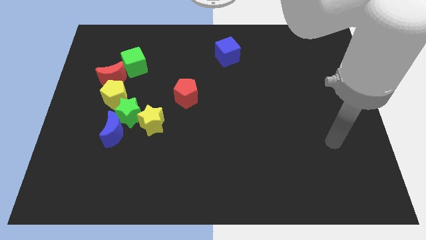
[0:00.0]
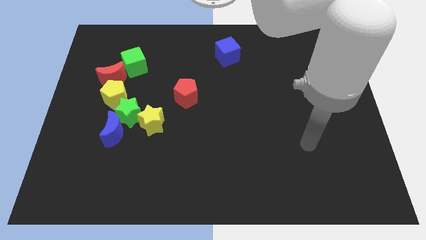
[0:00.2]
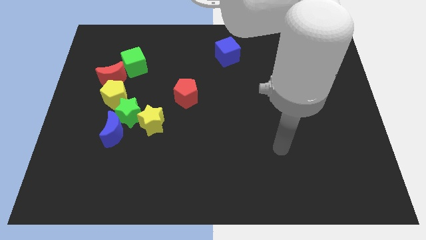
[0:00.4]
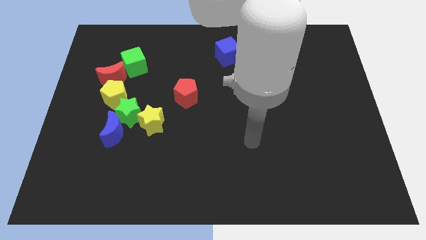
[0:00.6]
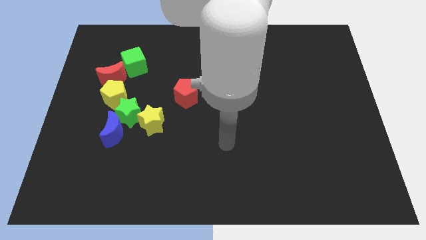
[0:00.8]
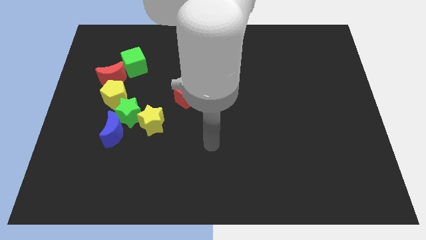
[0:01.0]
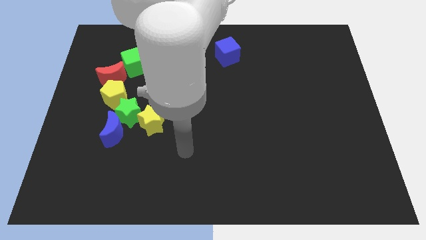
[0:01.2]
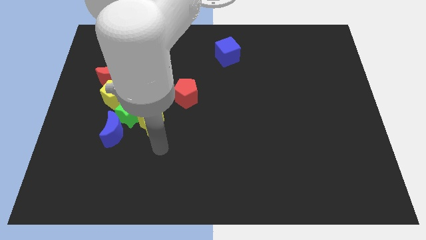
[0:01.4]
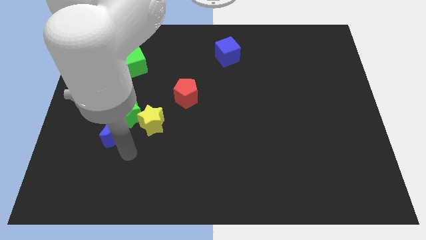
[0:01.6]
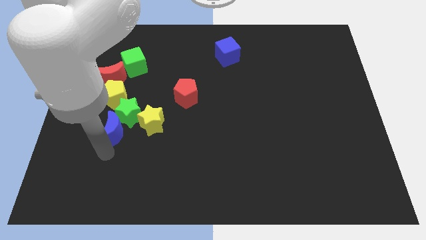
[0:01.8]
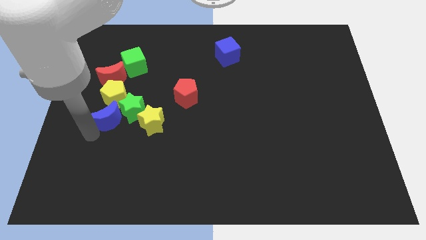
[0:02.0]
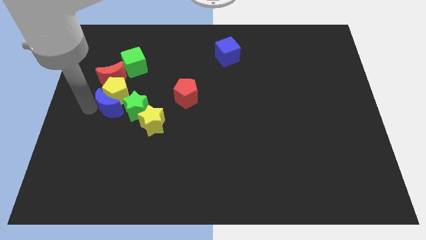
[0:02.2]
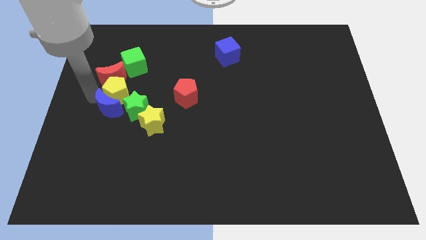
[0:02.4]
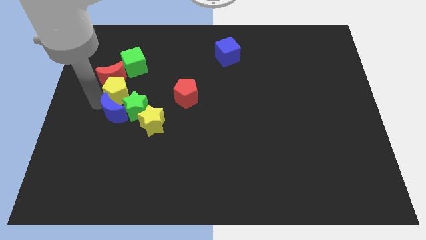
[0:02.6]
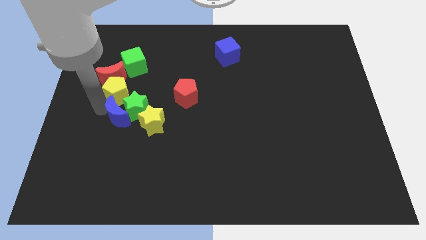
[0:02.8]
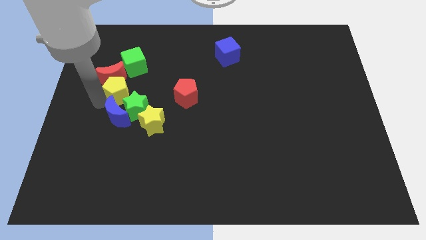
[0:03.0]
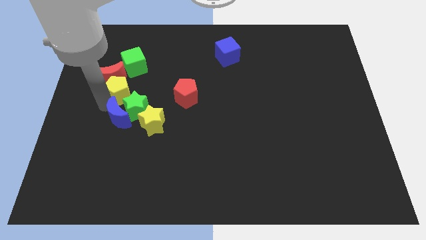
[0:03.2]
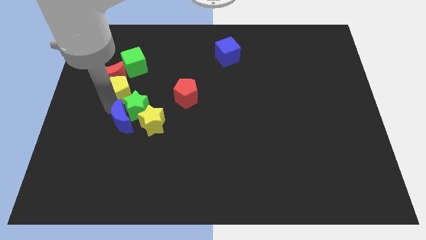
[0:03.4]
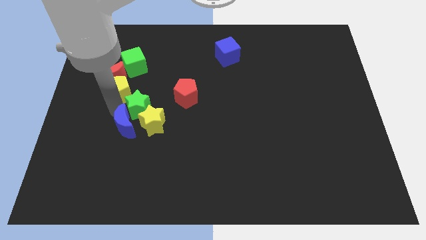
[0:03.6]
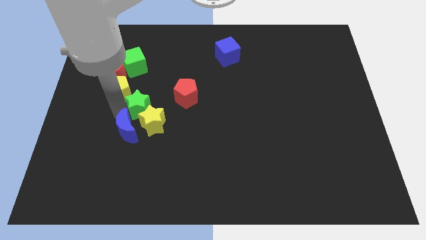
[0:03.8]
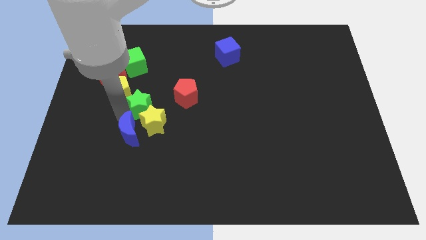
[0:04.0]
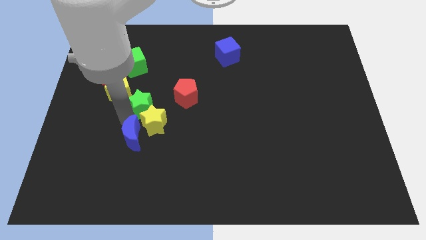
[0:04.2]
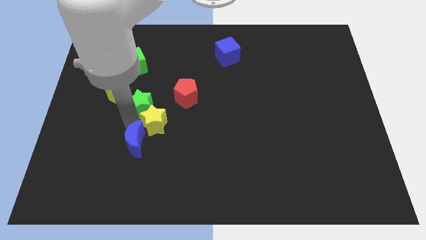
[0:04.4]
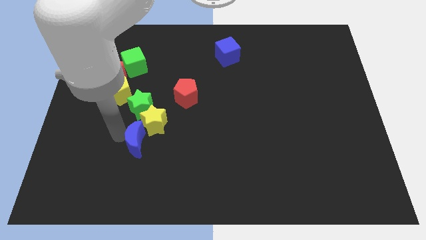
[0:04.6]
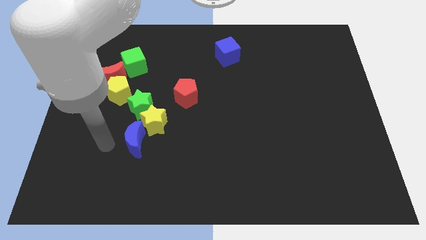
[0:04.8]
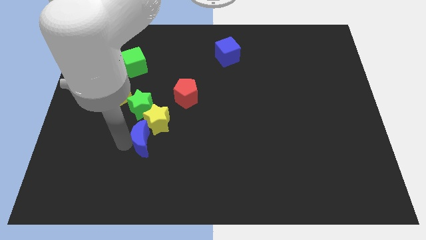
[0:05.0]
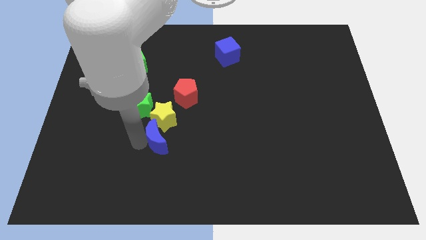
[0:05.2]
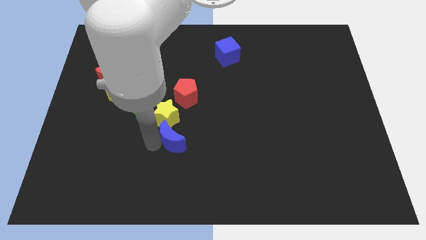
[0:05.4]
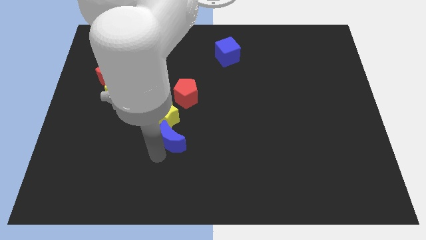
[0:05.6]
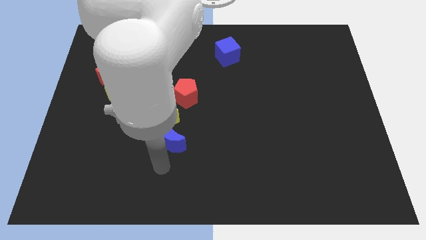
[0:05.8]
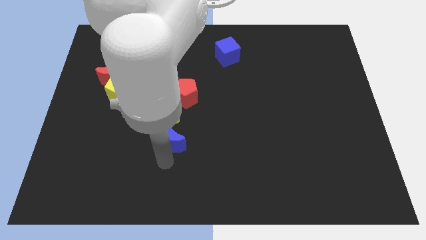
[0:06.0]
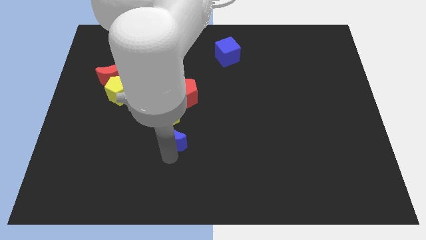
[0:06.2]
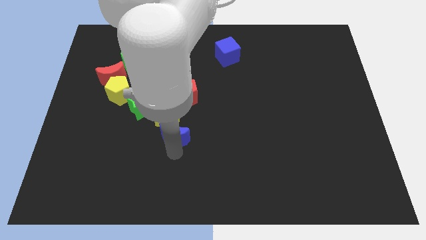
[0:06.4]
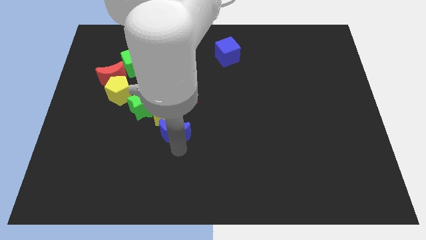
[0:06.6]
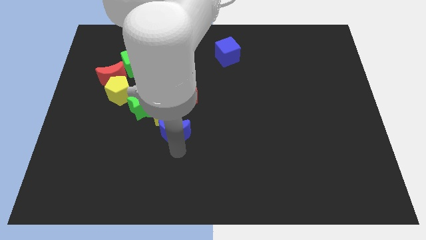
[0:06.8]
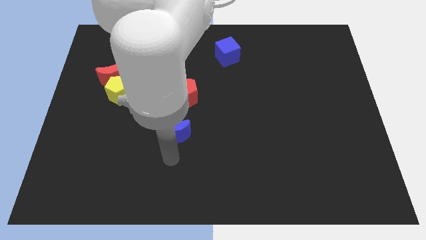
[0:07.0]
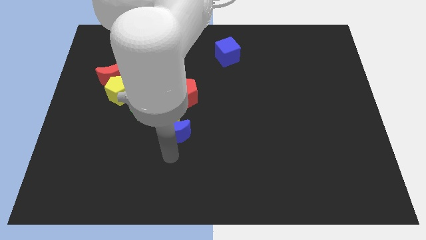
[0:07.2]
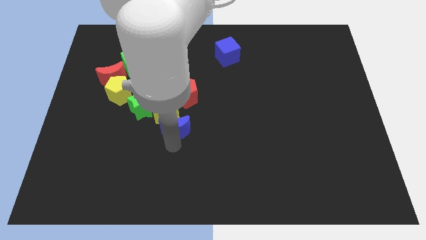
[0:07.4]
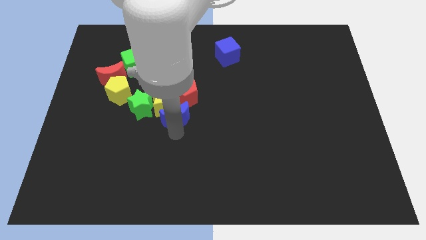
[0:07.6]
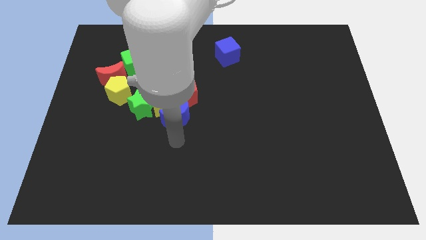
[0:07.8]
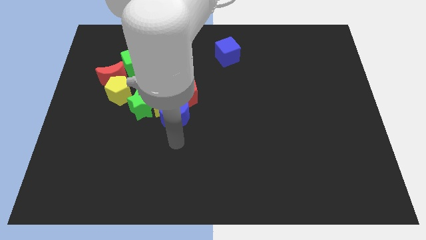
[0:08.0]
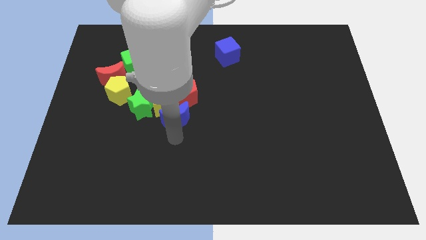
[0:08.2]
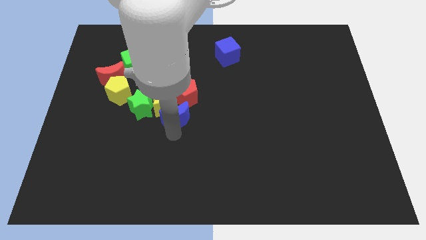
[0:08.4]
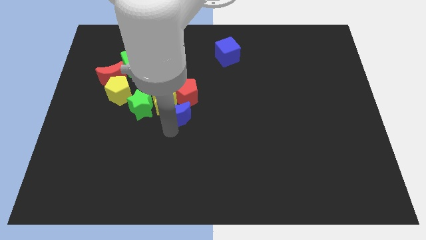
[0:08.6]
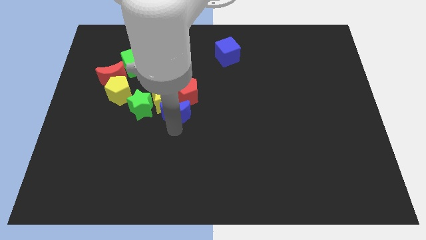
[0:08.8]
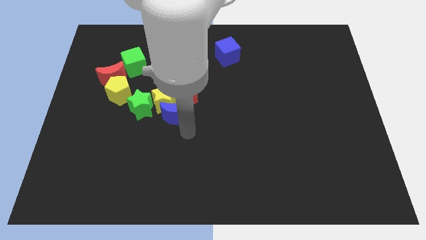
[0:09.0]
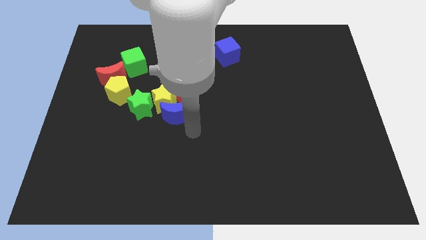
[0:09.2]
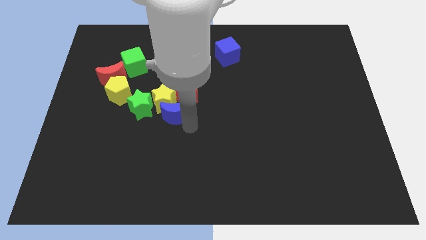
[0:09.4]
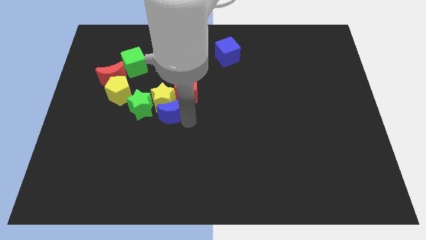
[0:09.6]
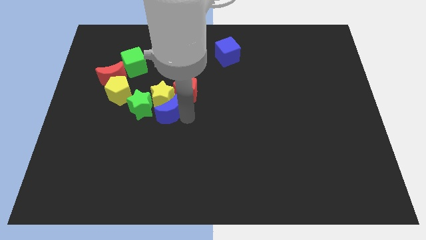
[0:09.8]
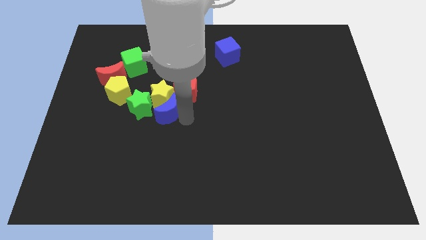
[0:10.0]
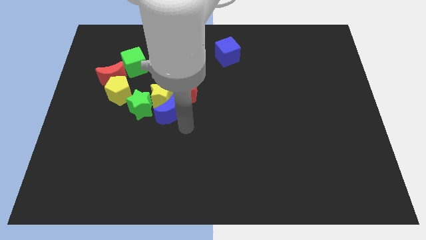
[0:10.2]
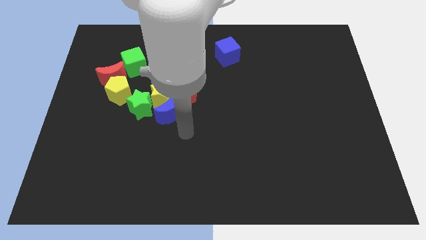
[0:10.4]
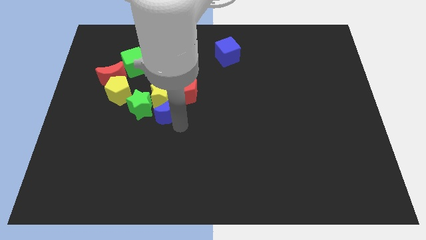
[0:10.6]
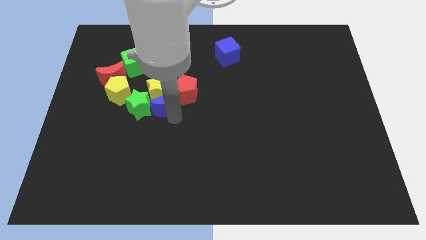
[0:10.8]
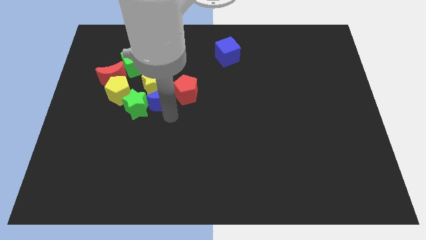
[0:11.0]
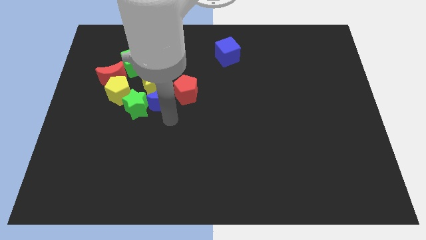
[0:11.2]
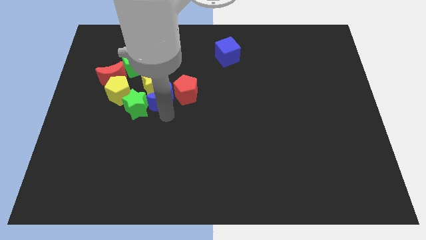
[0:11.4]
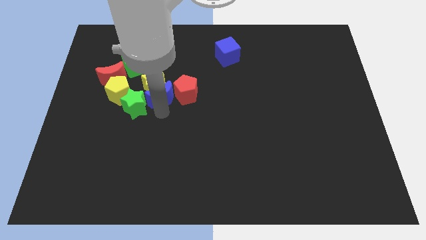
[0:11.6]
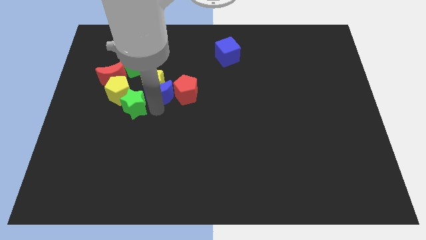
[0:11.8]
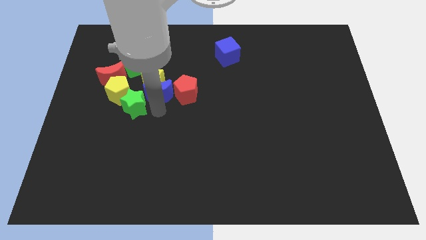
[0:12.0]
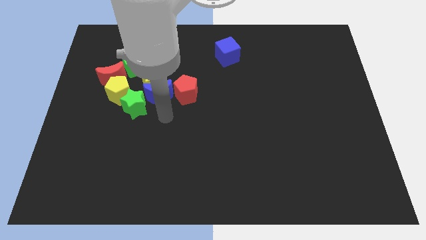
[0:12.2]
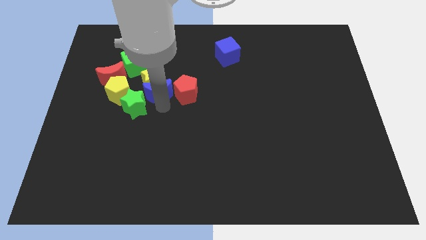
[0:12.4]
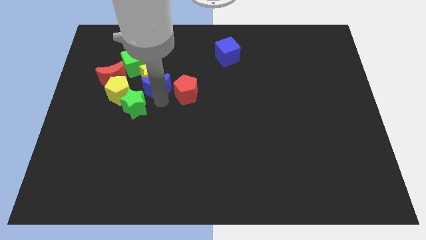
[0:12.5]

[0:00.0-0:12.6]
slide the blue moon just right of the red moon

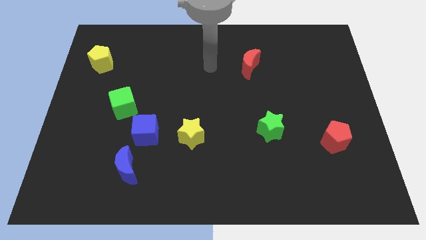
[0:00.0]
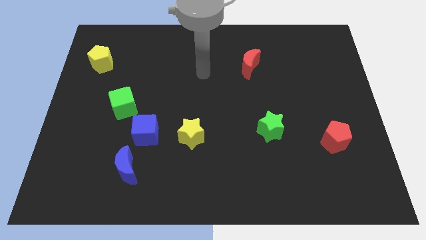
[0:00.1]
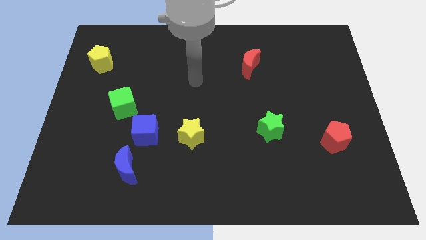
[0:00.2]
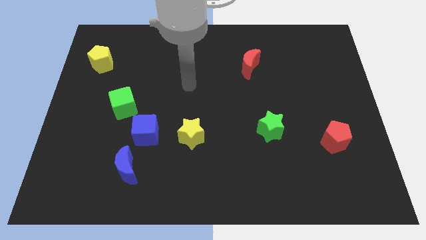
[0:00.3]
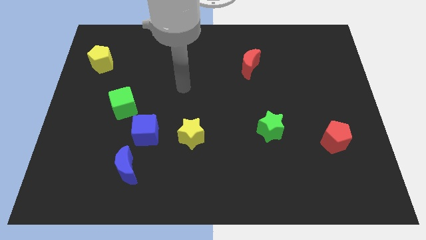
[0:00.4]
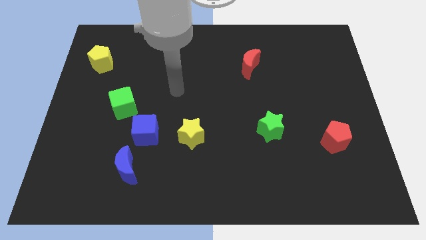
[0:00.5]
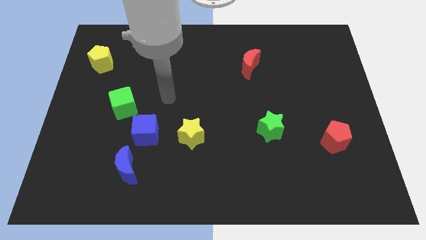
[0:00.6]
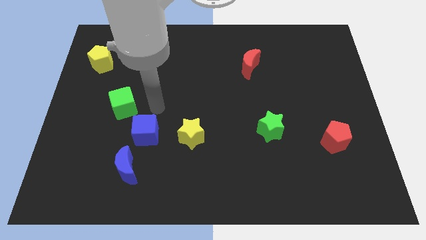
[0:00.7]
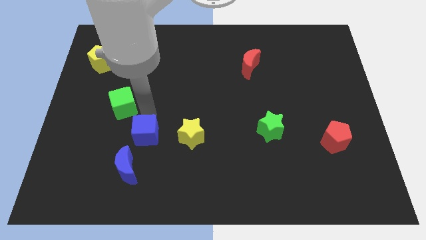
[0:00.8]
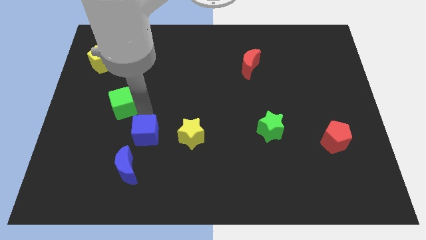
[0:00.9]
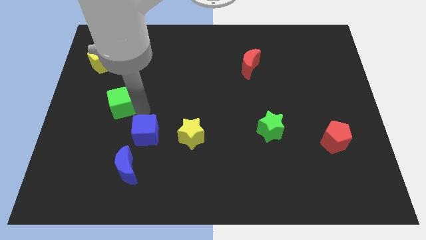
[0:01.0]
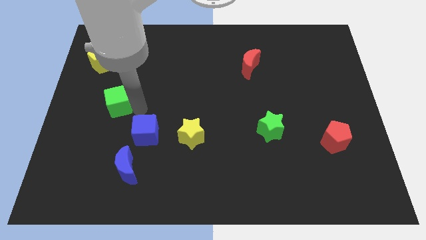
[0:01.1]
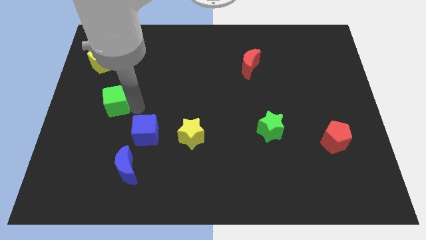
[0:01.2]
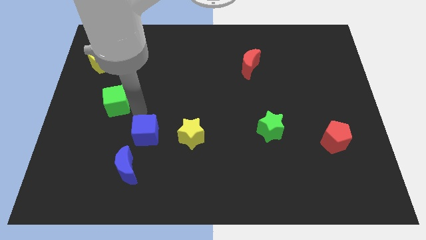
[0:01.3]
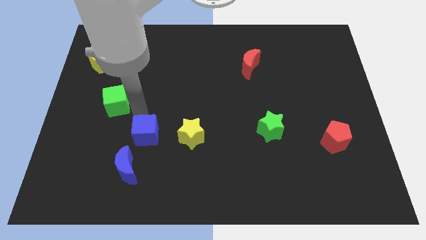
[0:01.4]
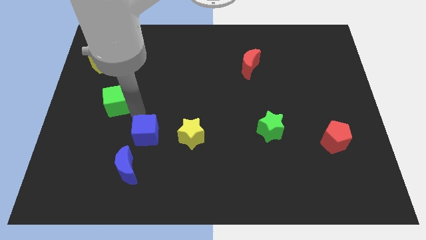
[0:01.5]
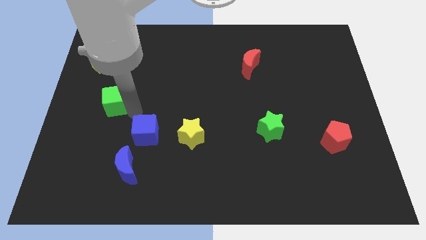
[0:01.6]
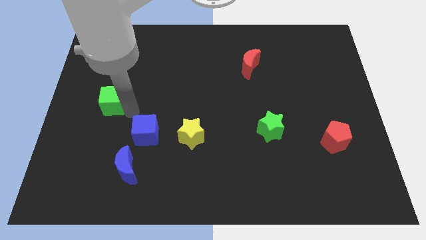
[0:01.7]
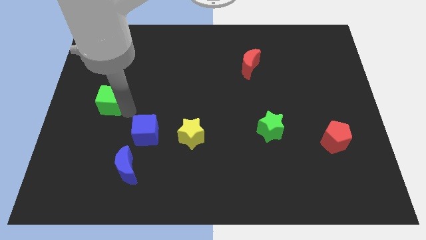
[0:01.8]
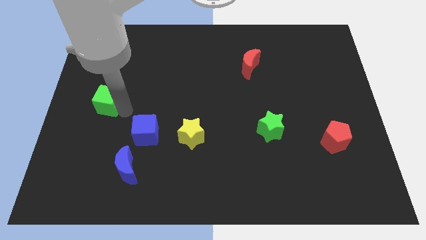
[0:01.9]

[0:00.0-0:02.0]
put the green cube to the bottom of the yellow pentagon
